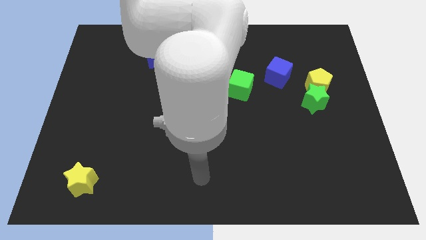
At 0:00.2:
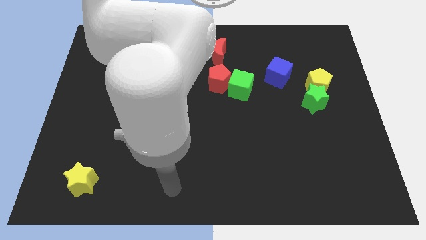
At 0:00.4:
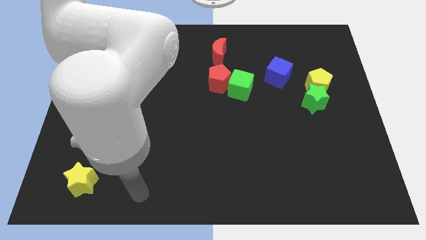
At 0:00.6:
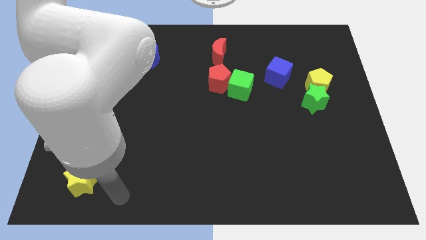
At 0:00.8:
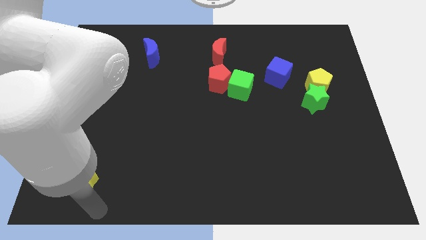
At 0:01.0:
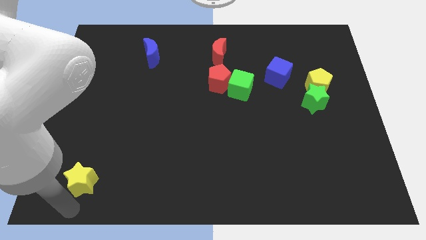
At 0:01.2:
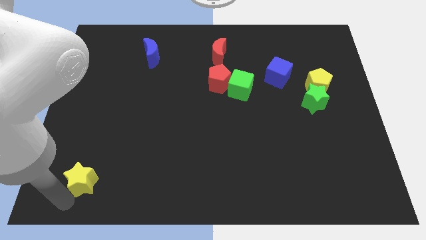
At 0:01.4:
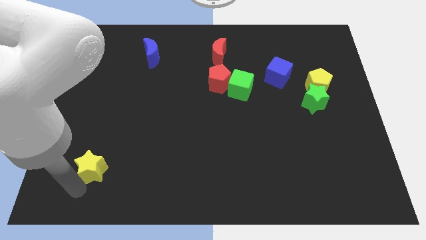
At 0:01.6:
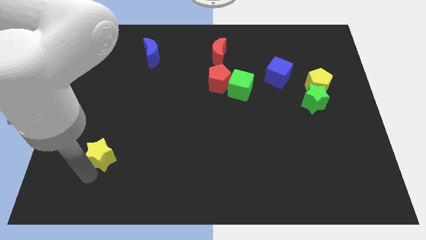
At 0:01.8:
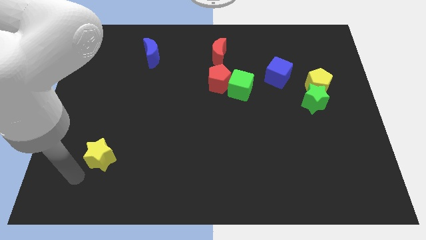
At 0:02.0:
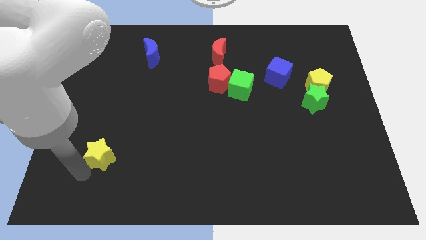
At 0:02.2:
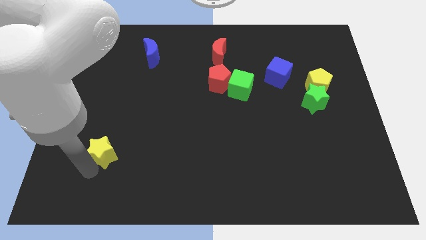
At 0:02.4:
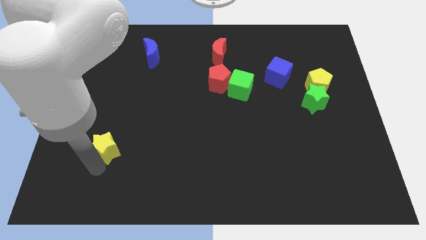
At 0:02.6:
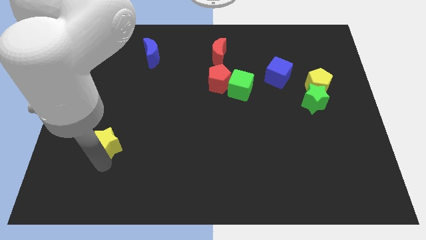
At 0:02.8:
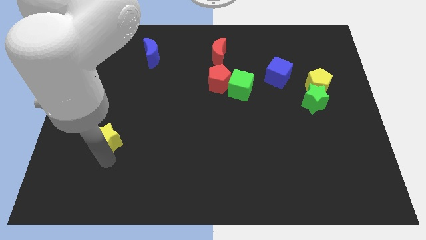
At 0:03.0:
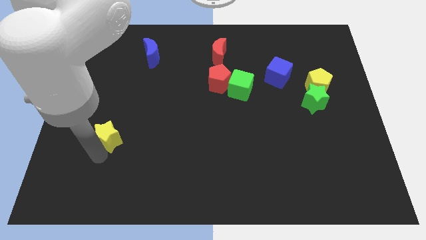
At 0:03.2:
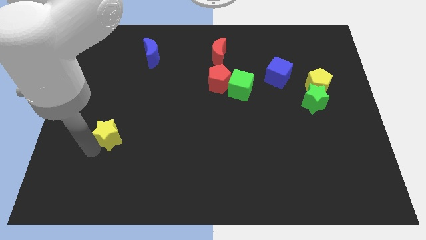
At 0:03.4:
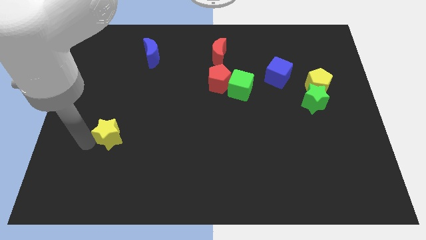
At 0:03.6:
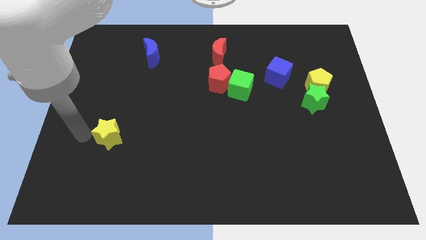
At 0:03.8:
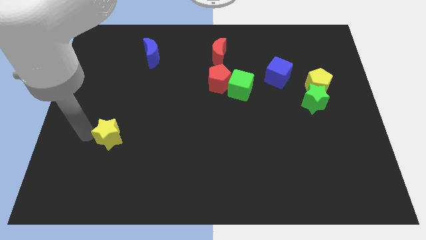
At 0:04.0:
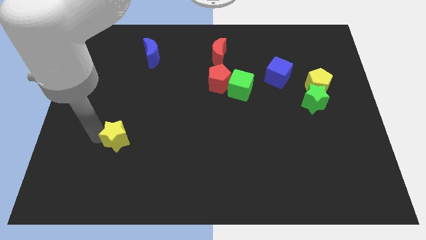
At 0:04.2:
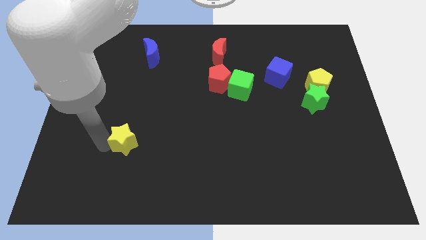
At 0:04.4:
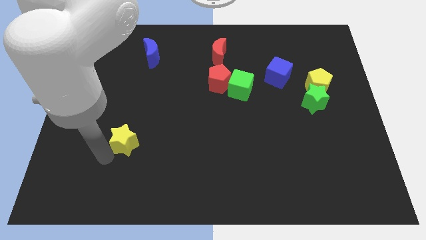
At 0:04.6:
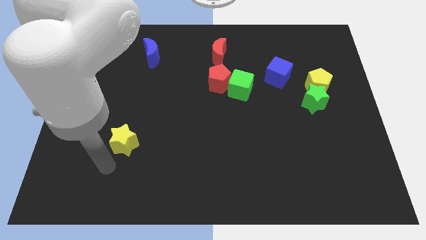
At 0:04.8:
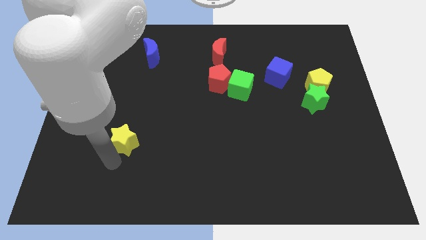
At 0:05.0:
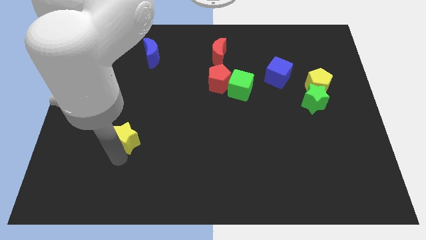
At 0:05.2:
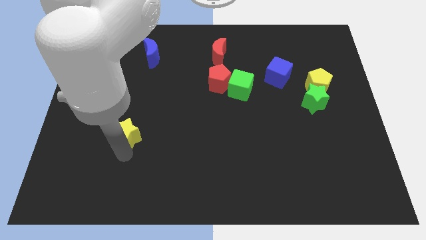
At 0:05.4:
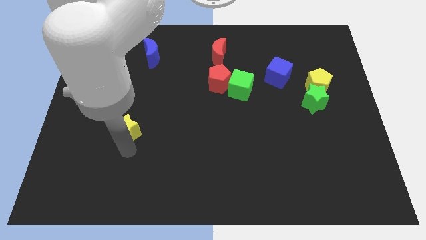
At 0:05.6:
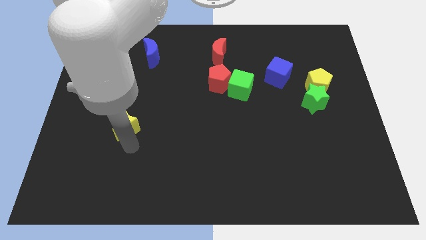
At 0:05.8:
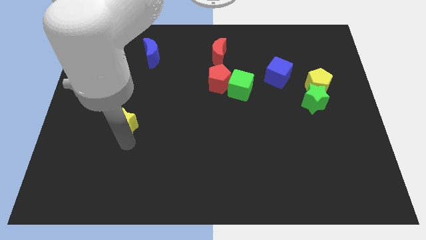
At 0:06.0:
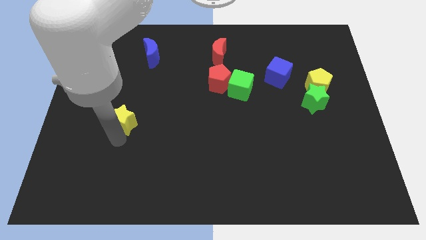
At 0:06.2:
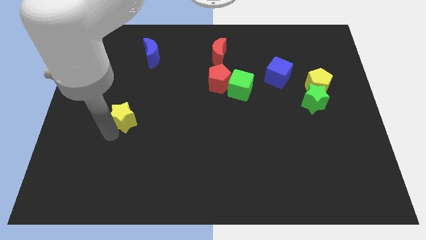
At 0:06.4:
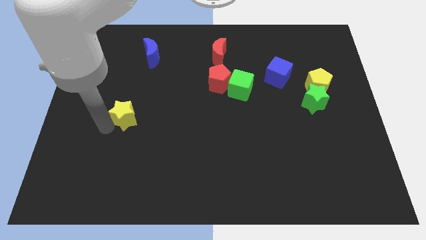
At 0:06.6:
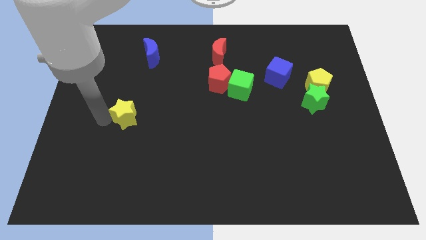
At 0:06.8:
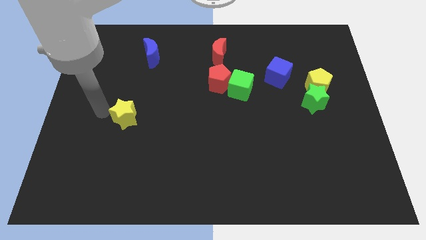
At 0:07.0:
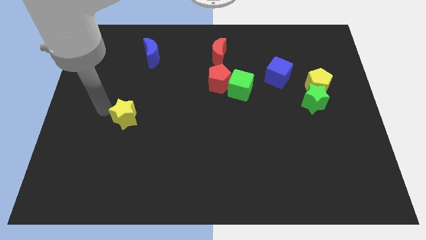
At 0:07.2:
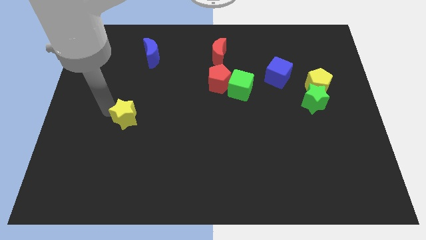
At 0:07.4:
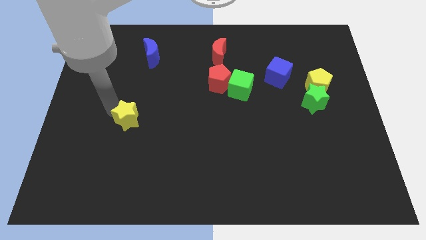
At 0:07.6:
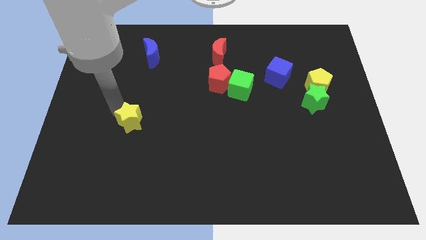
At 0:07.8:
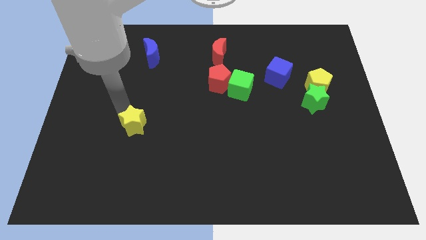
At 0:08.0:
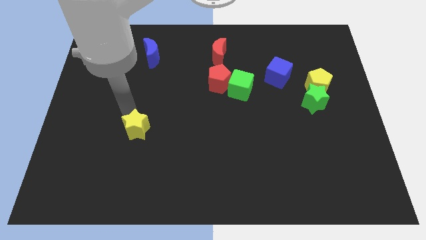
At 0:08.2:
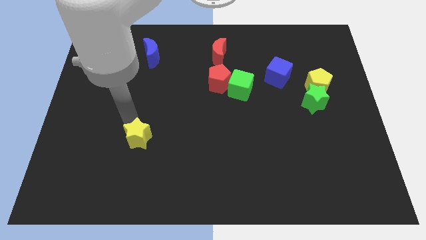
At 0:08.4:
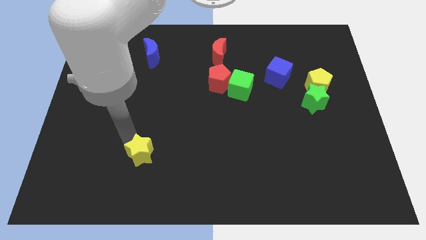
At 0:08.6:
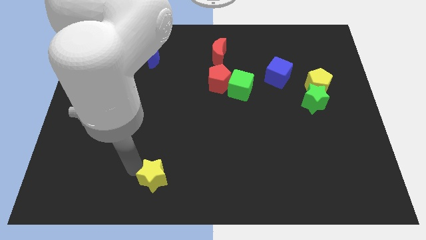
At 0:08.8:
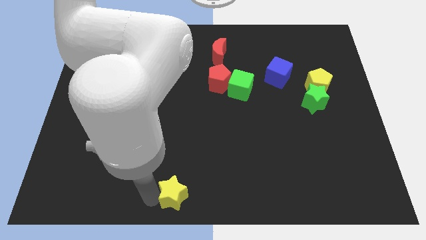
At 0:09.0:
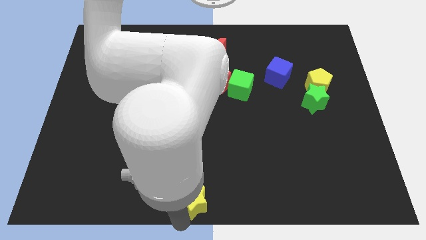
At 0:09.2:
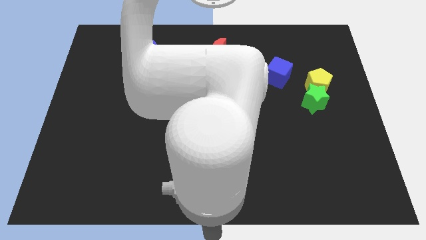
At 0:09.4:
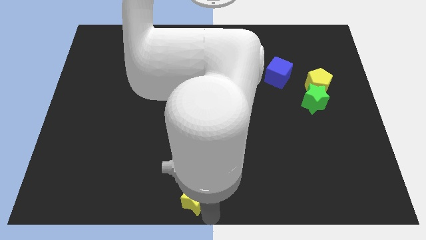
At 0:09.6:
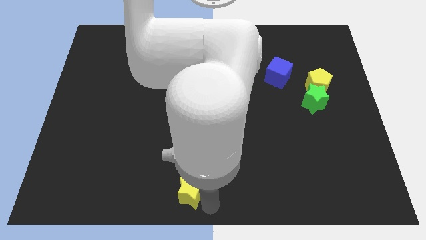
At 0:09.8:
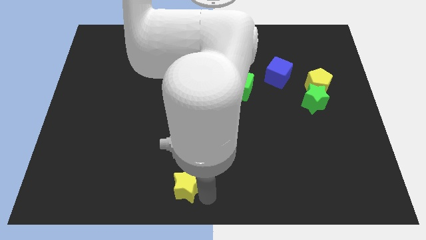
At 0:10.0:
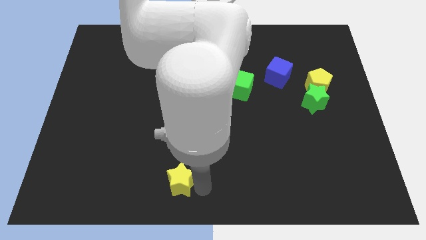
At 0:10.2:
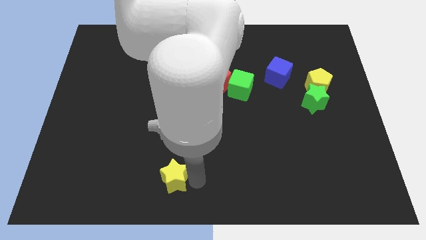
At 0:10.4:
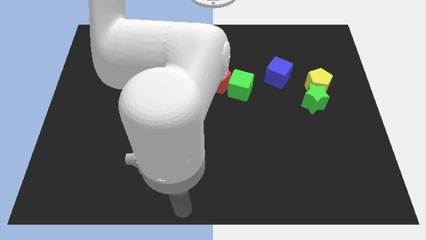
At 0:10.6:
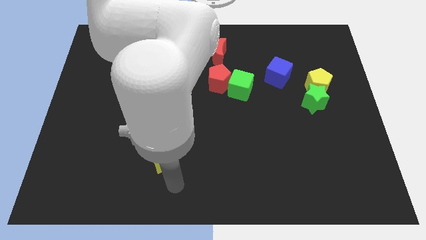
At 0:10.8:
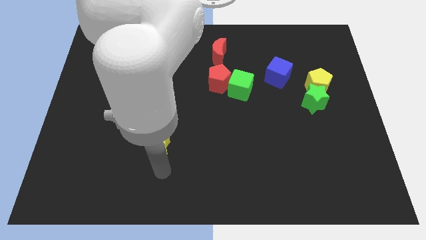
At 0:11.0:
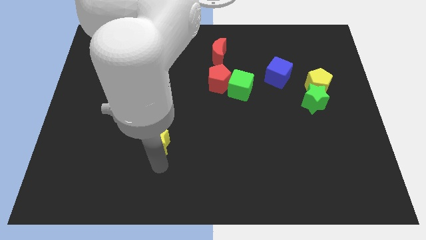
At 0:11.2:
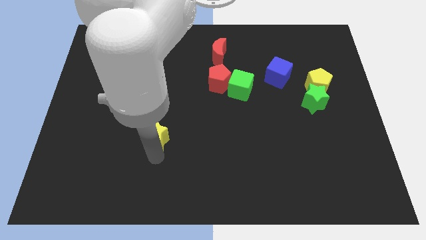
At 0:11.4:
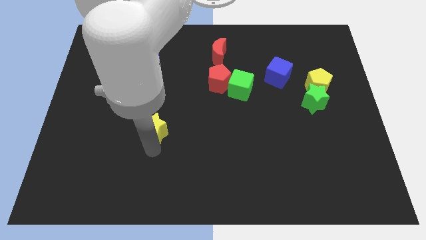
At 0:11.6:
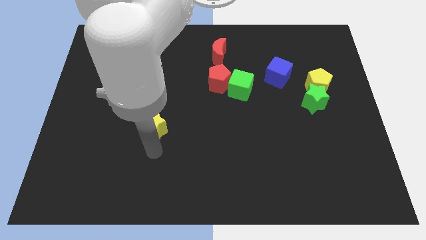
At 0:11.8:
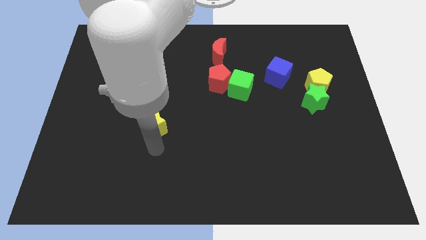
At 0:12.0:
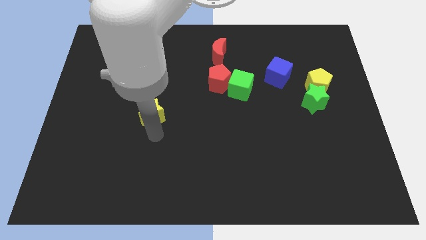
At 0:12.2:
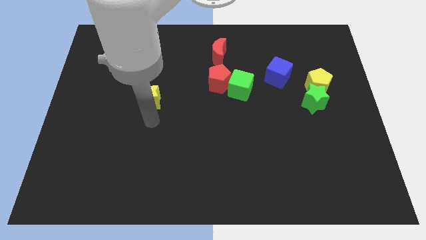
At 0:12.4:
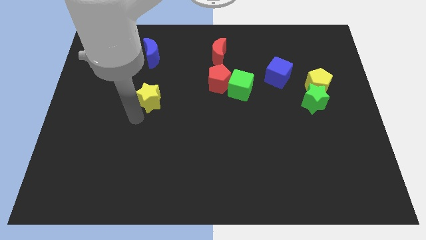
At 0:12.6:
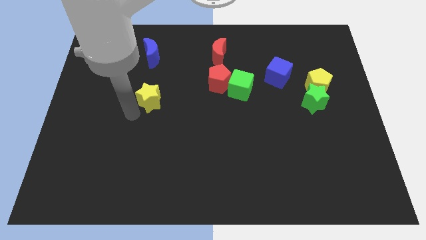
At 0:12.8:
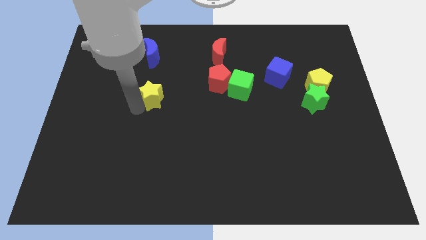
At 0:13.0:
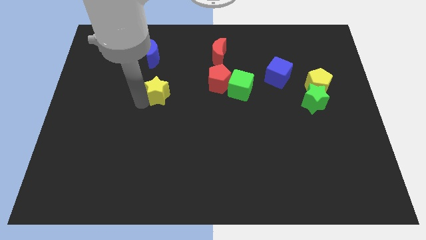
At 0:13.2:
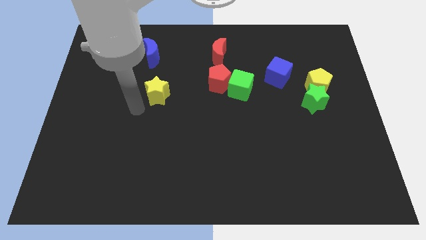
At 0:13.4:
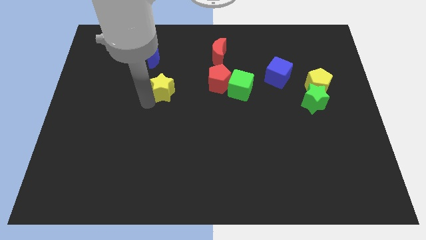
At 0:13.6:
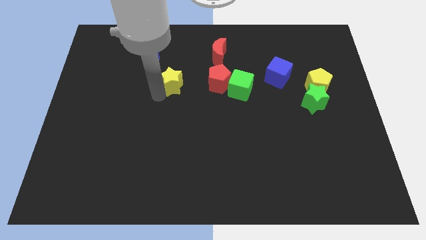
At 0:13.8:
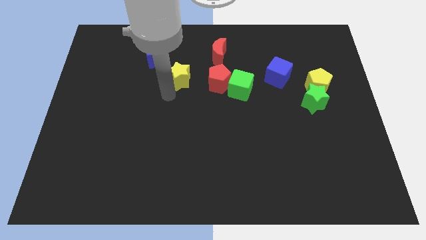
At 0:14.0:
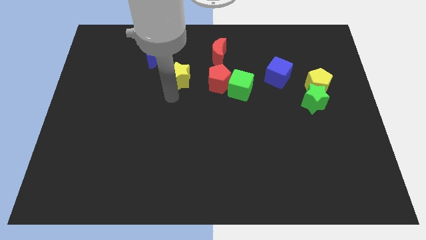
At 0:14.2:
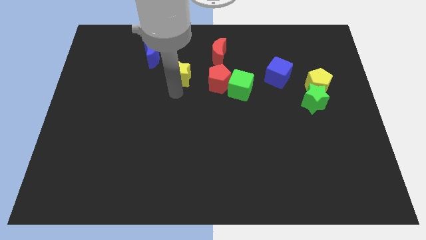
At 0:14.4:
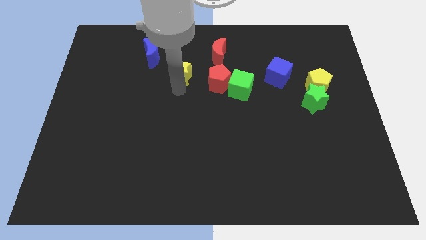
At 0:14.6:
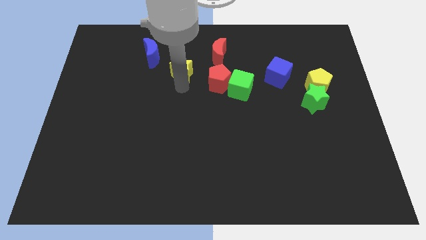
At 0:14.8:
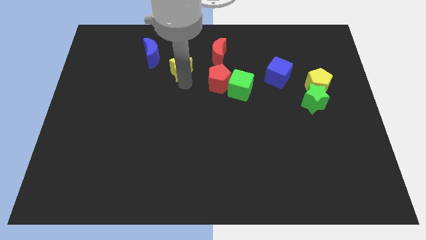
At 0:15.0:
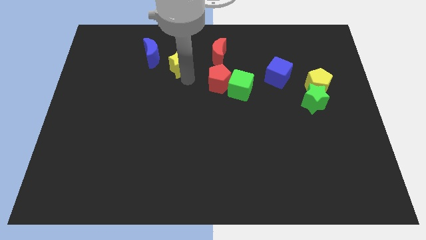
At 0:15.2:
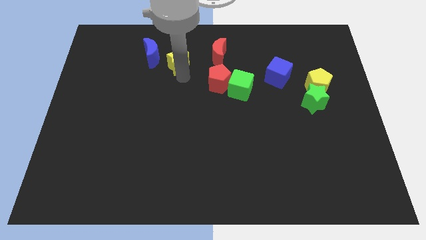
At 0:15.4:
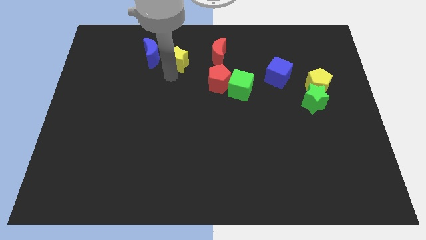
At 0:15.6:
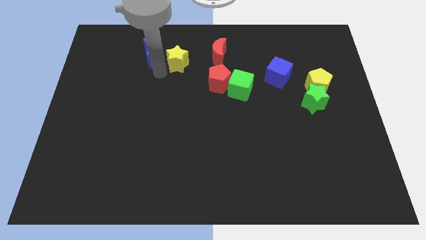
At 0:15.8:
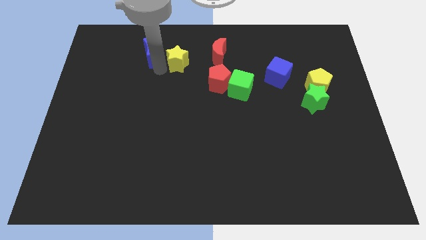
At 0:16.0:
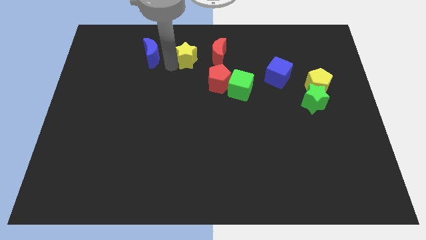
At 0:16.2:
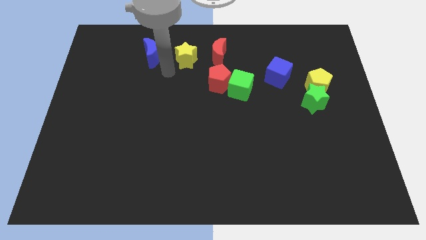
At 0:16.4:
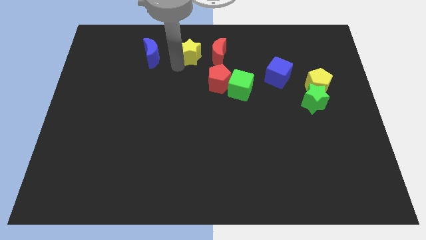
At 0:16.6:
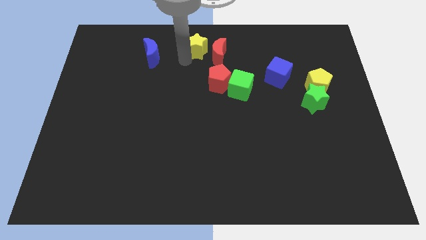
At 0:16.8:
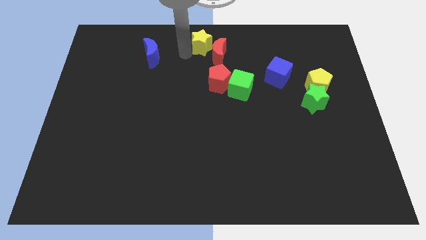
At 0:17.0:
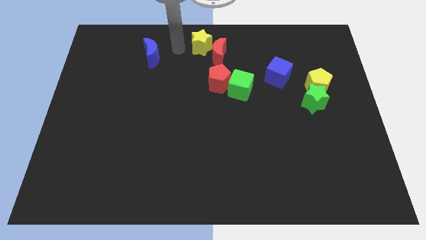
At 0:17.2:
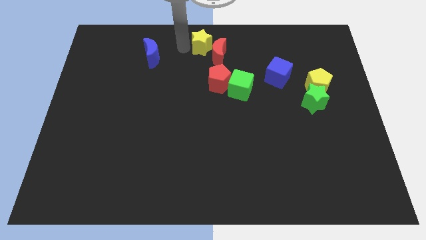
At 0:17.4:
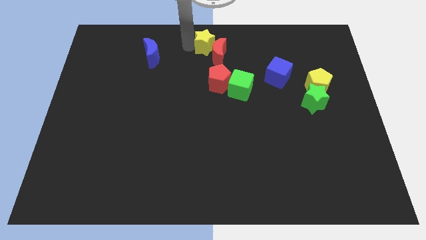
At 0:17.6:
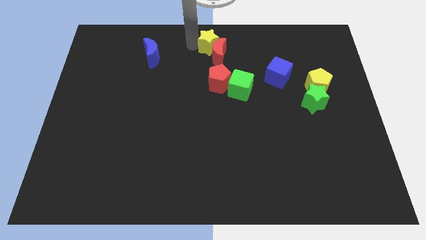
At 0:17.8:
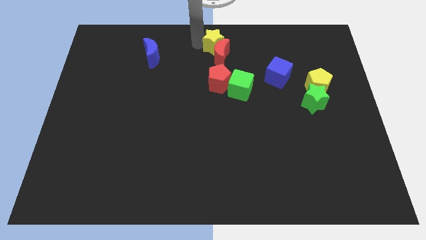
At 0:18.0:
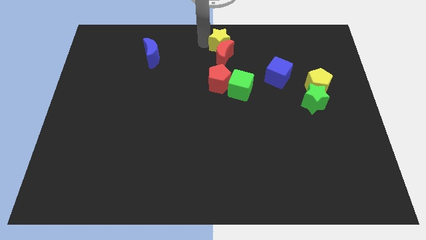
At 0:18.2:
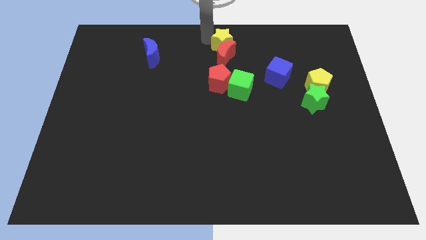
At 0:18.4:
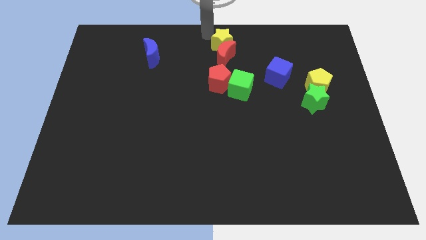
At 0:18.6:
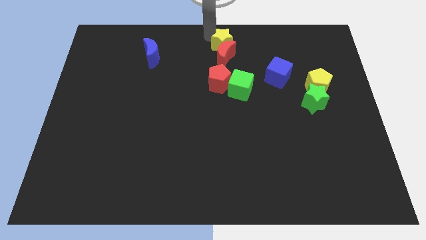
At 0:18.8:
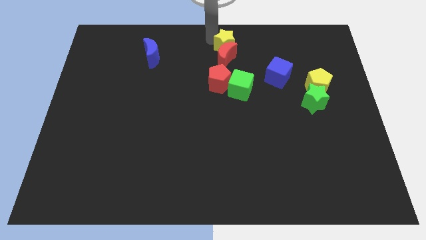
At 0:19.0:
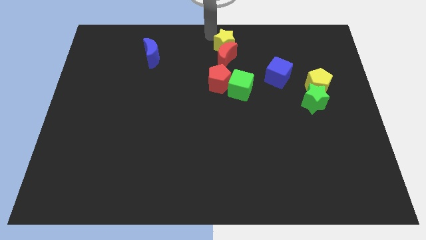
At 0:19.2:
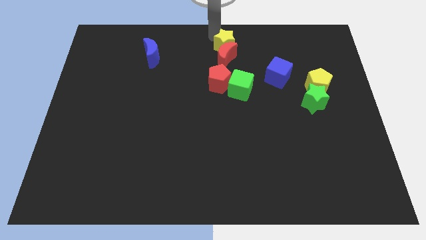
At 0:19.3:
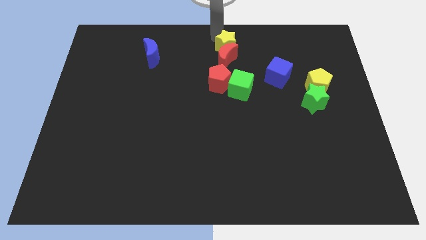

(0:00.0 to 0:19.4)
move the yellow star to the top of the green cube
